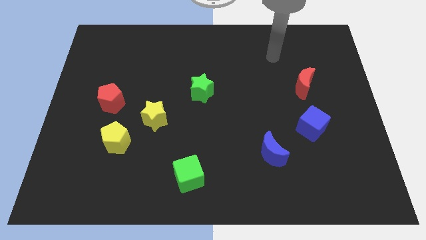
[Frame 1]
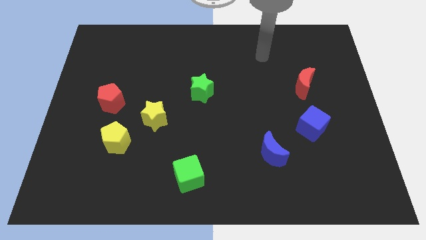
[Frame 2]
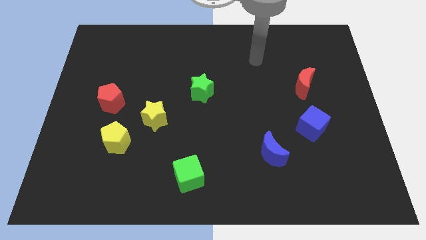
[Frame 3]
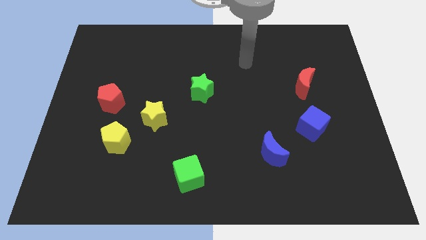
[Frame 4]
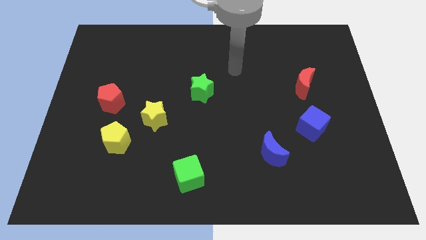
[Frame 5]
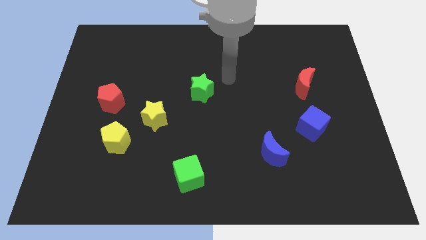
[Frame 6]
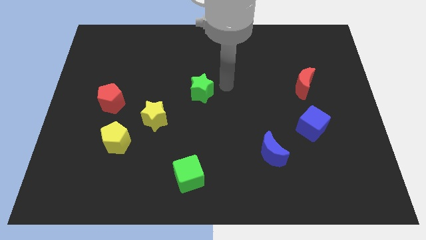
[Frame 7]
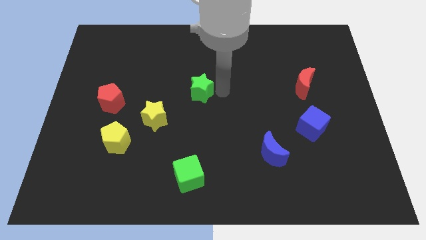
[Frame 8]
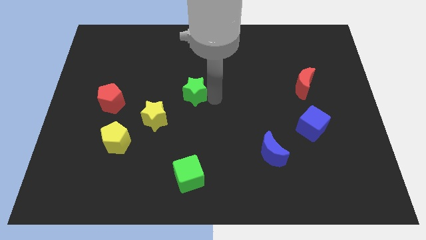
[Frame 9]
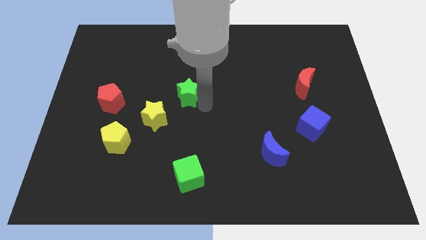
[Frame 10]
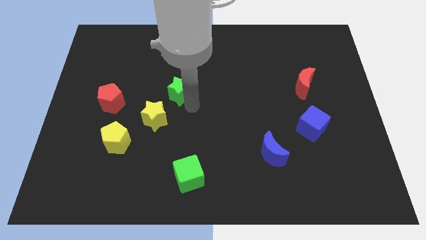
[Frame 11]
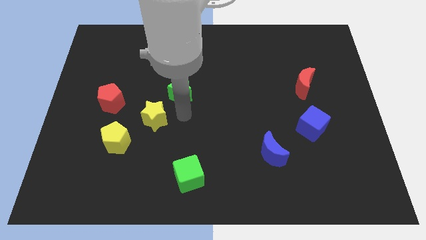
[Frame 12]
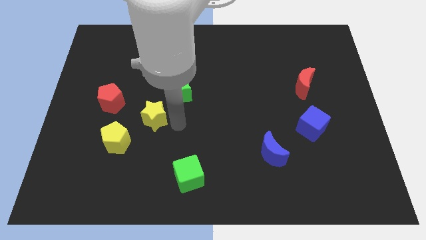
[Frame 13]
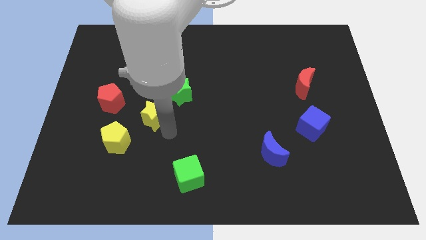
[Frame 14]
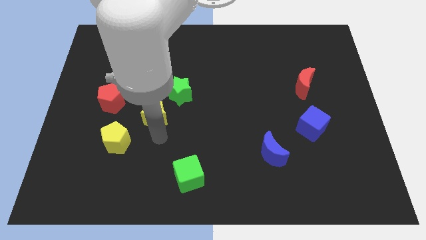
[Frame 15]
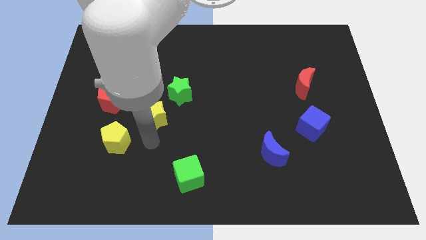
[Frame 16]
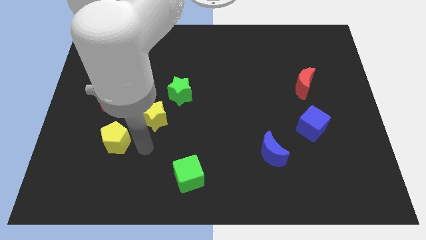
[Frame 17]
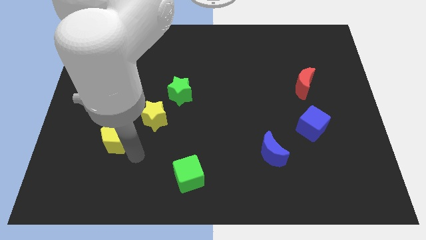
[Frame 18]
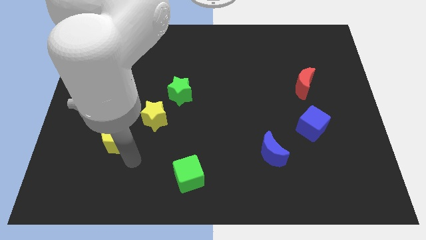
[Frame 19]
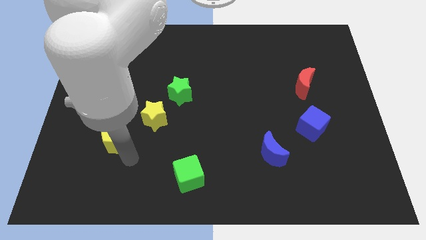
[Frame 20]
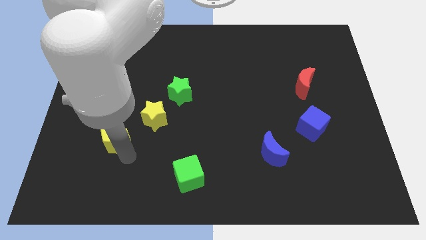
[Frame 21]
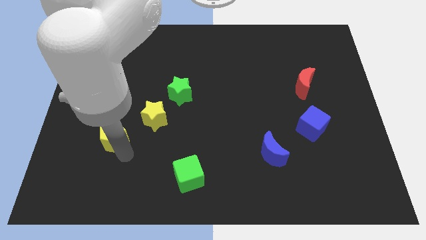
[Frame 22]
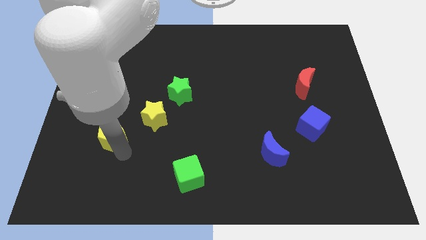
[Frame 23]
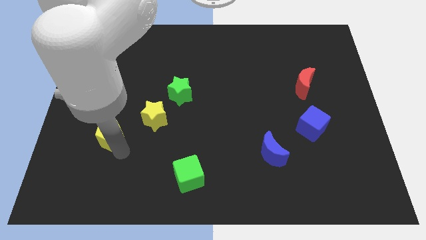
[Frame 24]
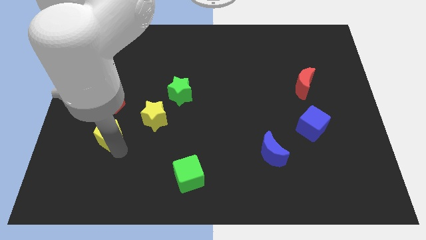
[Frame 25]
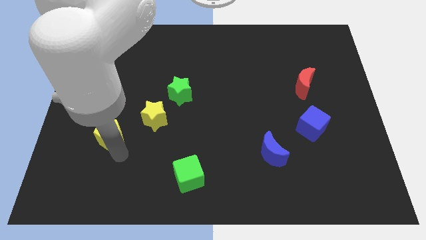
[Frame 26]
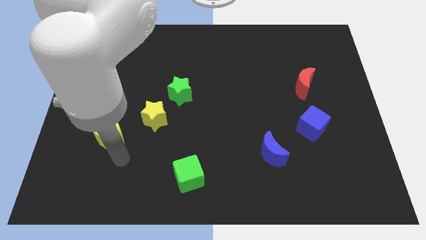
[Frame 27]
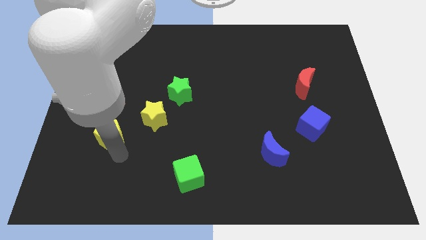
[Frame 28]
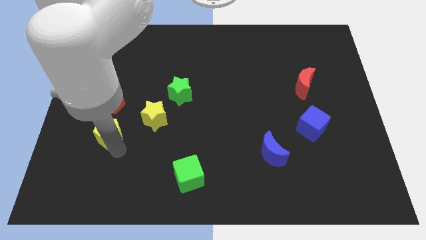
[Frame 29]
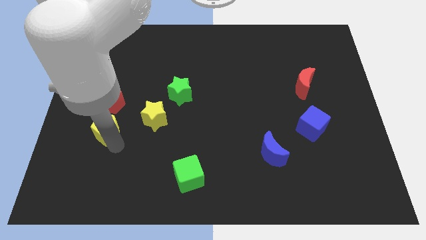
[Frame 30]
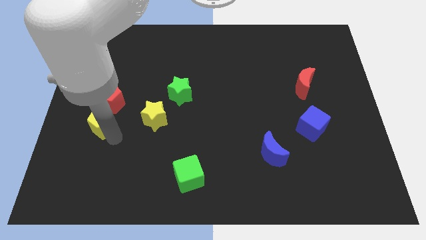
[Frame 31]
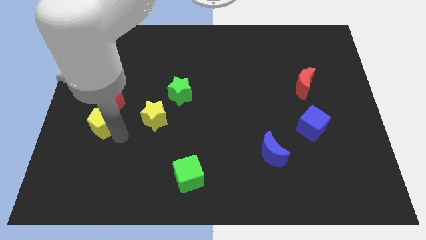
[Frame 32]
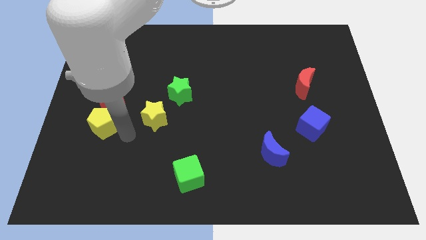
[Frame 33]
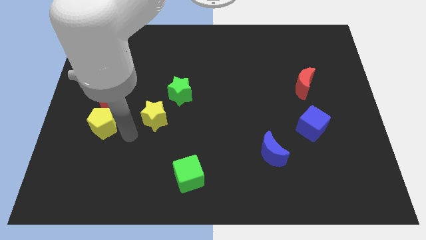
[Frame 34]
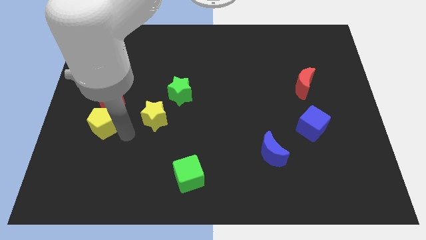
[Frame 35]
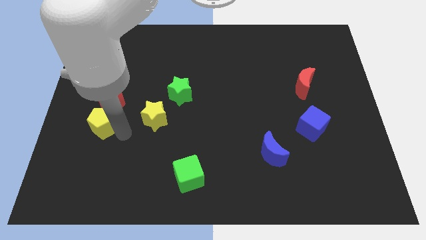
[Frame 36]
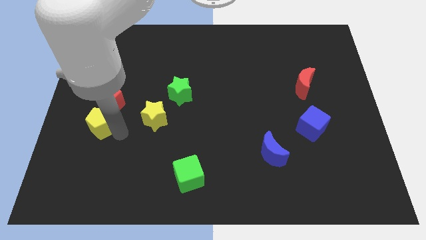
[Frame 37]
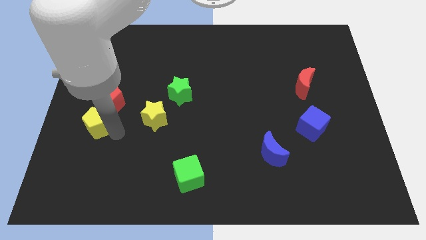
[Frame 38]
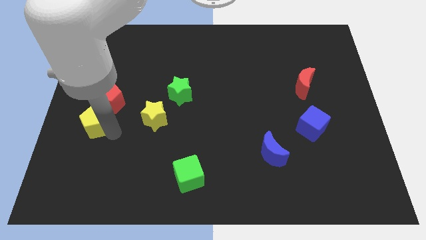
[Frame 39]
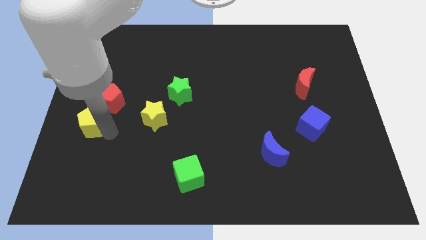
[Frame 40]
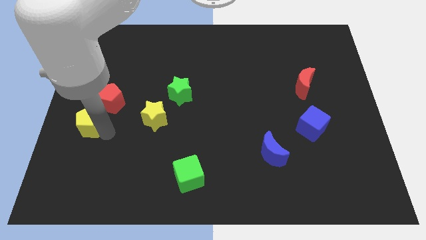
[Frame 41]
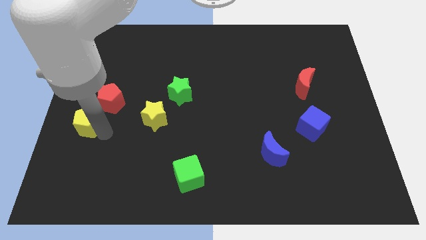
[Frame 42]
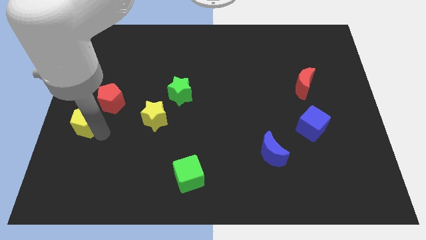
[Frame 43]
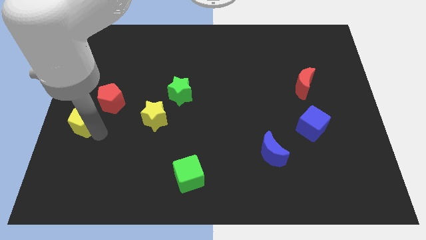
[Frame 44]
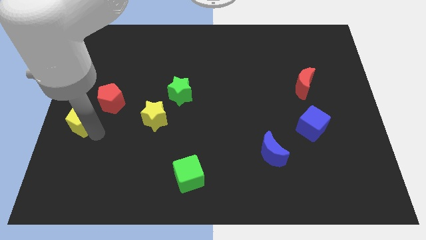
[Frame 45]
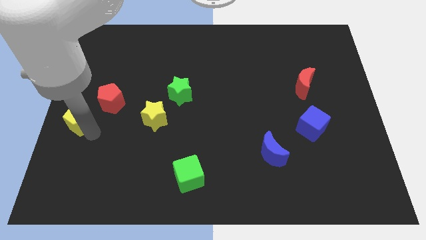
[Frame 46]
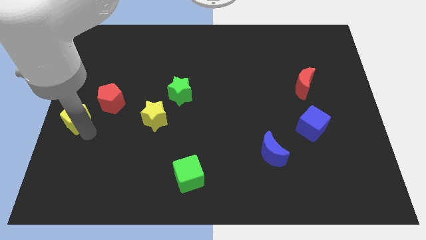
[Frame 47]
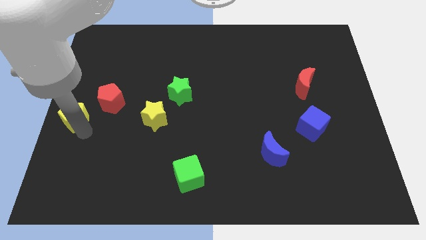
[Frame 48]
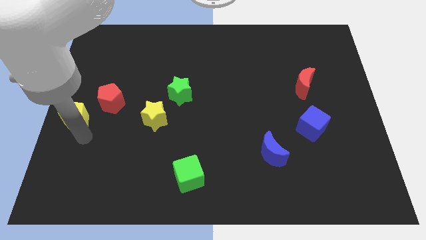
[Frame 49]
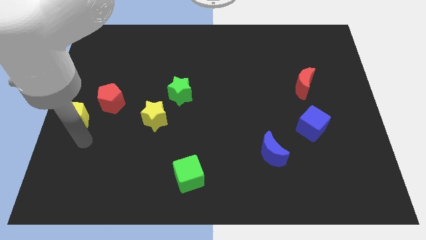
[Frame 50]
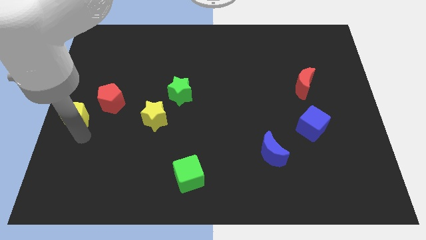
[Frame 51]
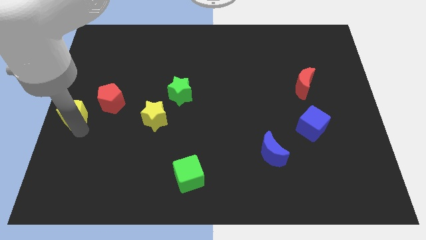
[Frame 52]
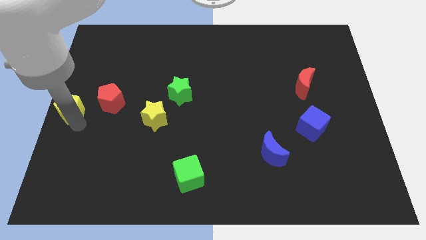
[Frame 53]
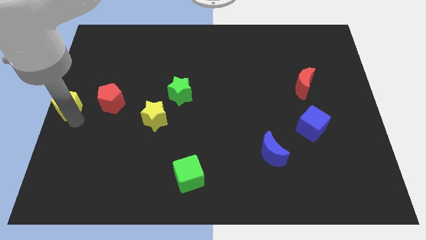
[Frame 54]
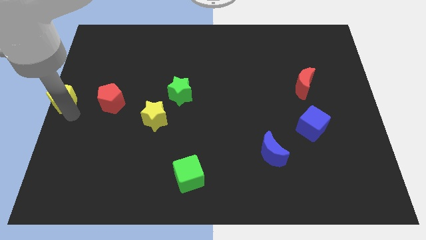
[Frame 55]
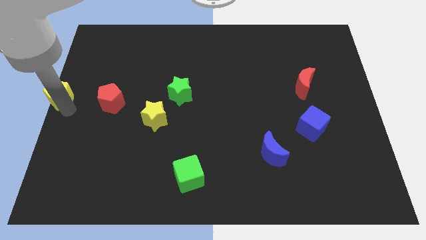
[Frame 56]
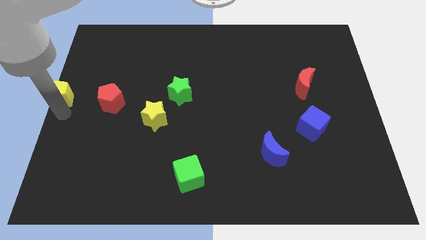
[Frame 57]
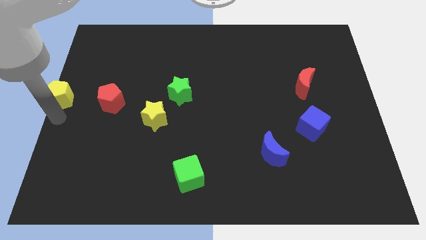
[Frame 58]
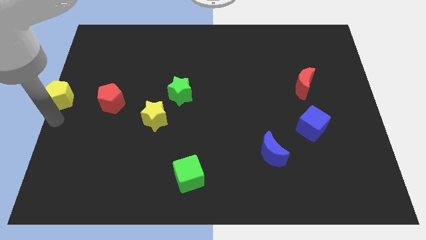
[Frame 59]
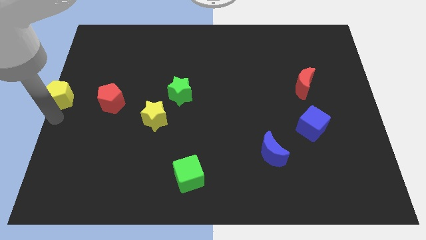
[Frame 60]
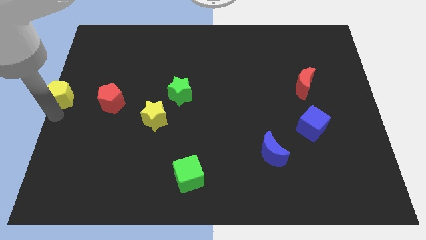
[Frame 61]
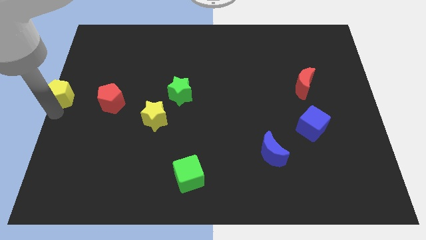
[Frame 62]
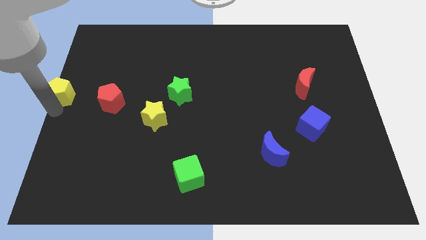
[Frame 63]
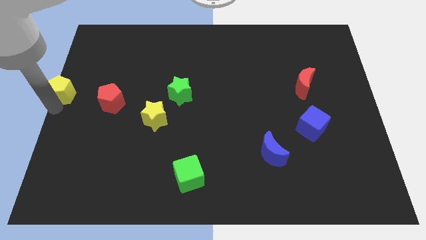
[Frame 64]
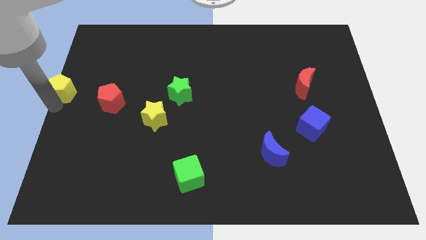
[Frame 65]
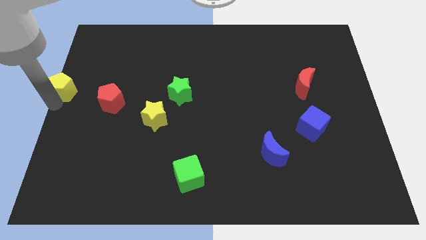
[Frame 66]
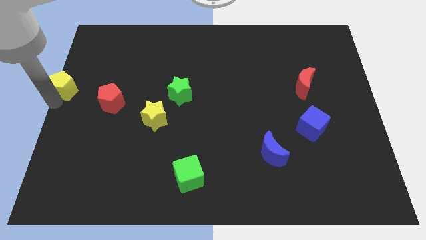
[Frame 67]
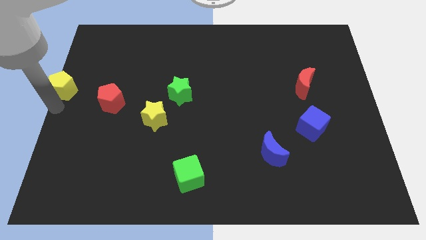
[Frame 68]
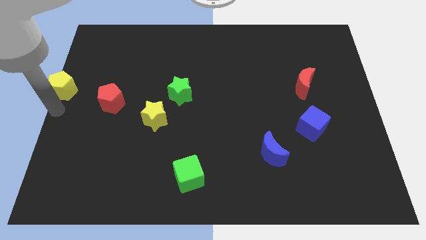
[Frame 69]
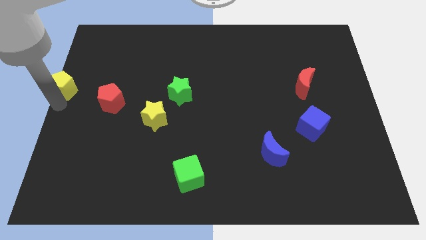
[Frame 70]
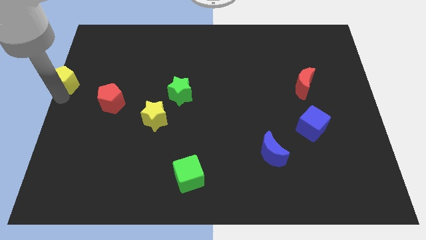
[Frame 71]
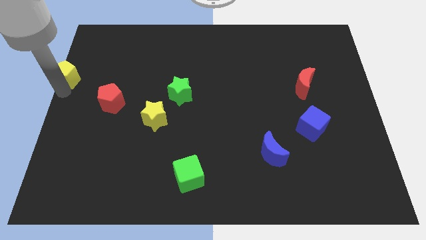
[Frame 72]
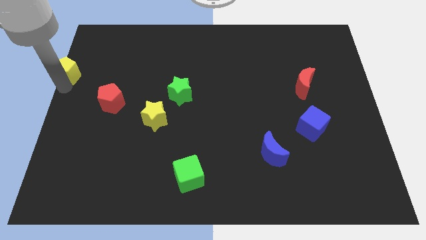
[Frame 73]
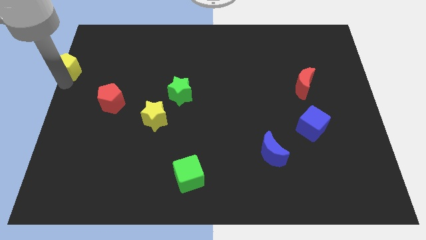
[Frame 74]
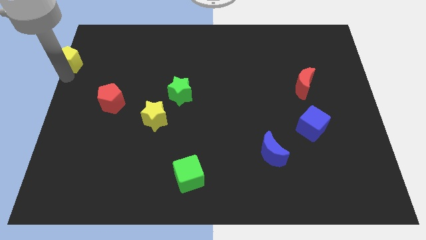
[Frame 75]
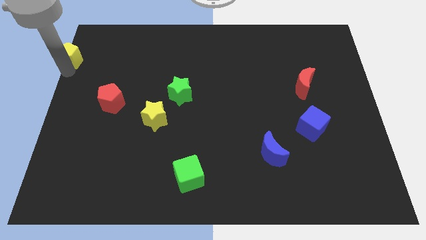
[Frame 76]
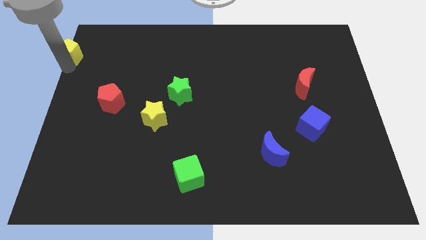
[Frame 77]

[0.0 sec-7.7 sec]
move the yellow pentagon to the top left
